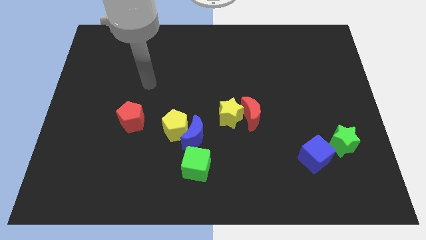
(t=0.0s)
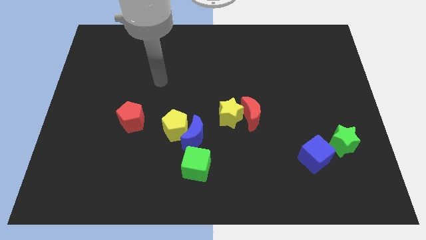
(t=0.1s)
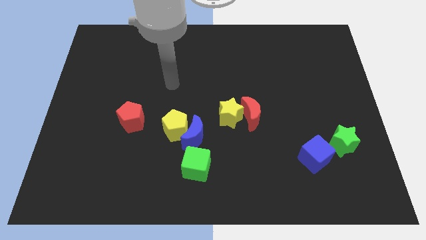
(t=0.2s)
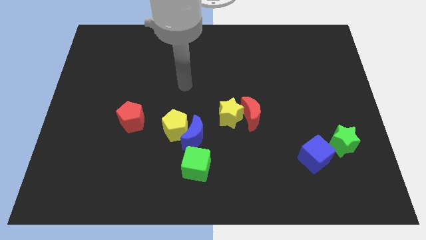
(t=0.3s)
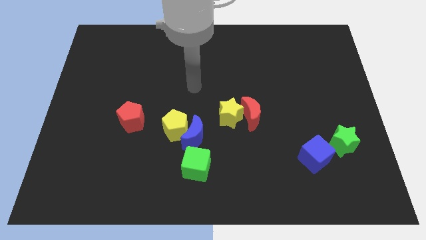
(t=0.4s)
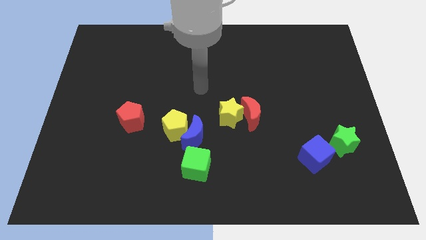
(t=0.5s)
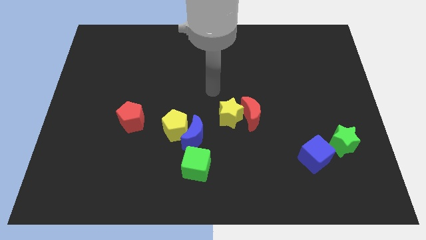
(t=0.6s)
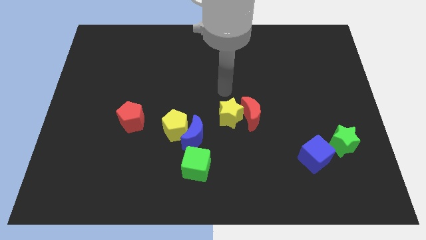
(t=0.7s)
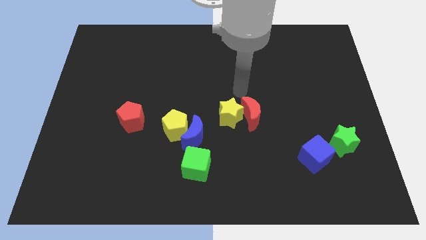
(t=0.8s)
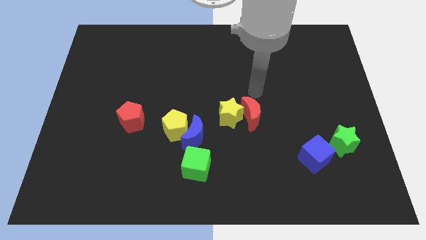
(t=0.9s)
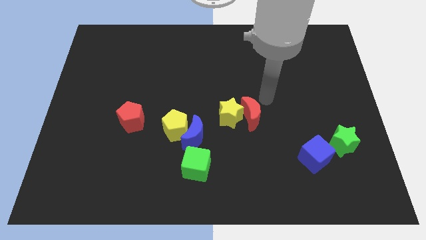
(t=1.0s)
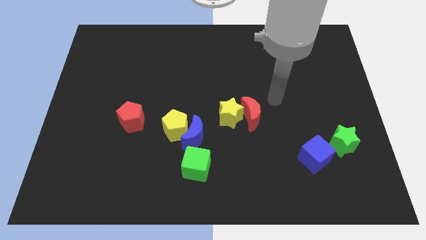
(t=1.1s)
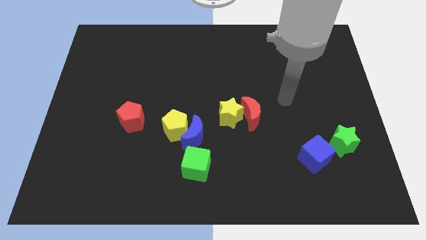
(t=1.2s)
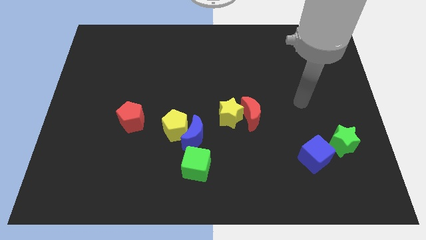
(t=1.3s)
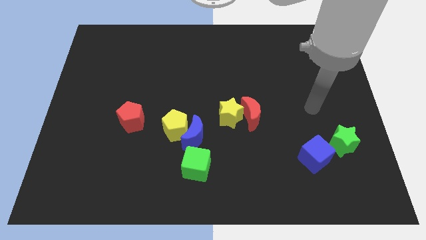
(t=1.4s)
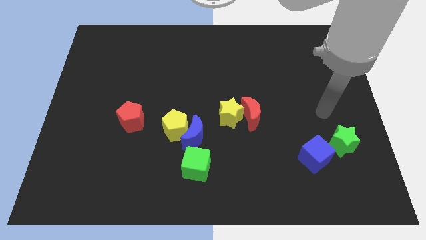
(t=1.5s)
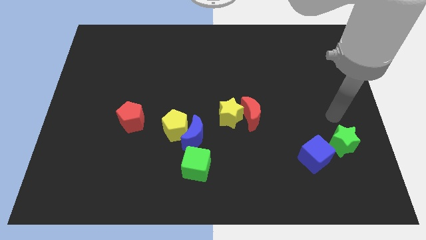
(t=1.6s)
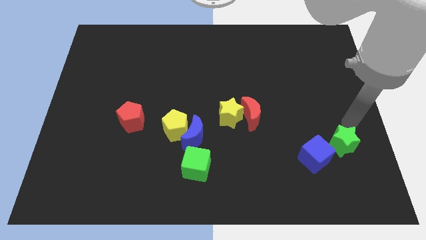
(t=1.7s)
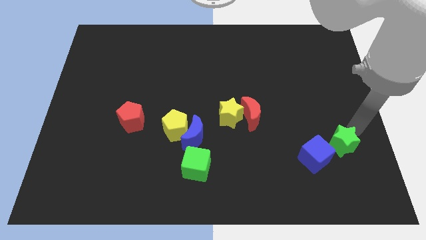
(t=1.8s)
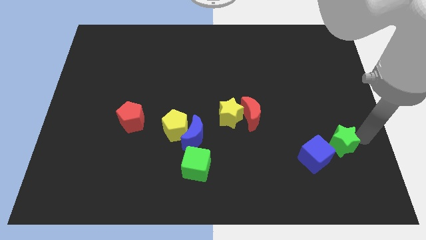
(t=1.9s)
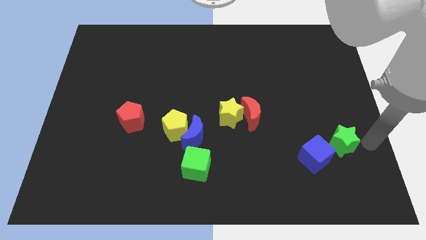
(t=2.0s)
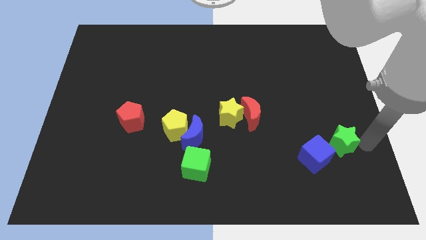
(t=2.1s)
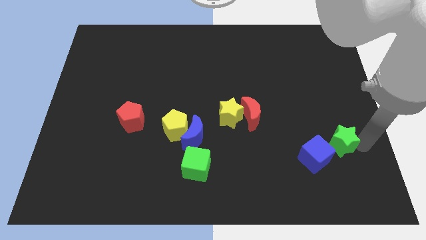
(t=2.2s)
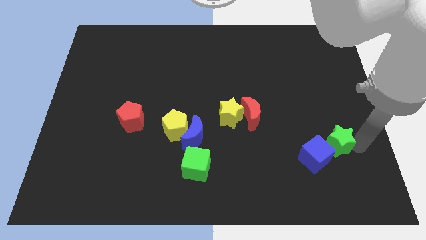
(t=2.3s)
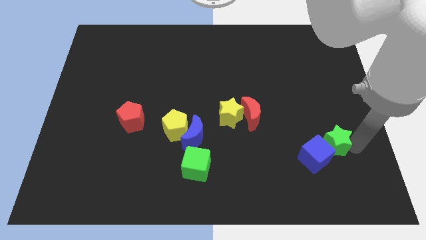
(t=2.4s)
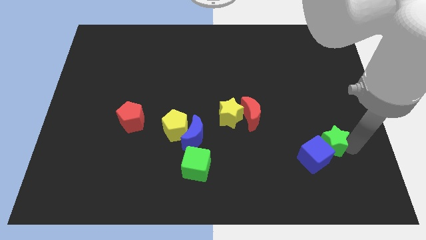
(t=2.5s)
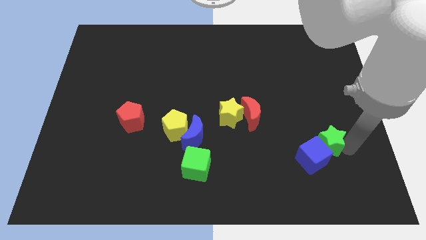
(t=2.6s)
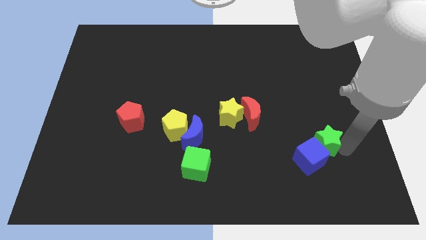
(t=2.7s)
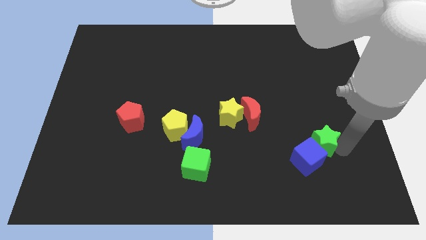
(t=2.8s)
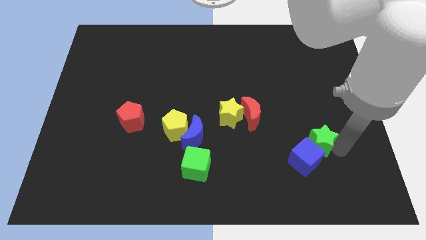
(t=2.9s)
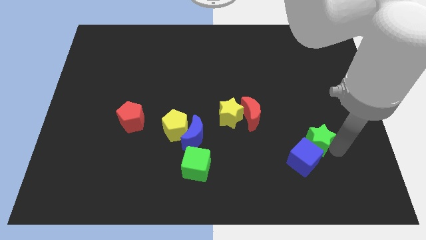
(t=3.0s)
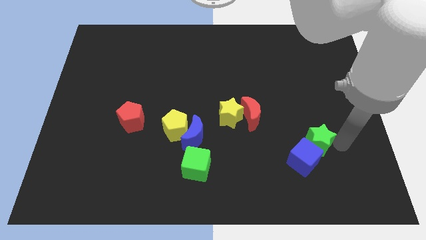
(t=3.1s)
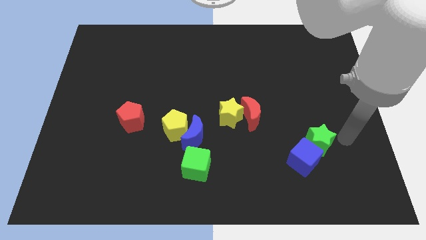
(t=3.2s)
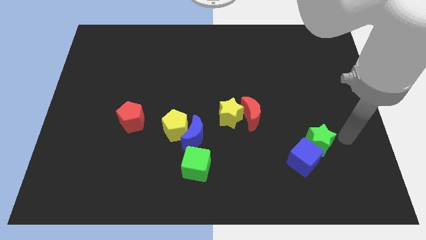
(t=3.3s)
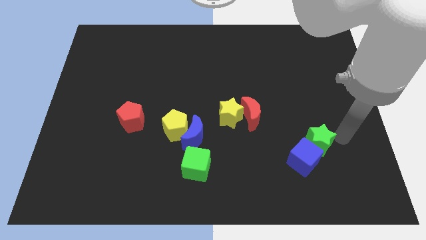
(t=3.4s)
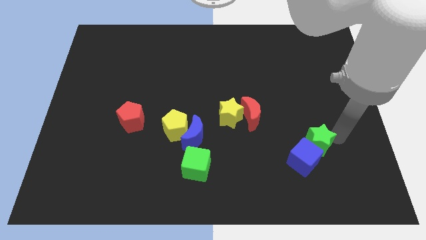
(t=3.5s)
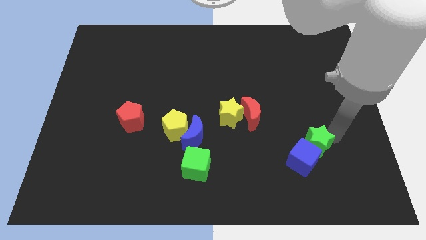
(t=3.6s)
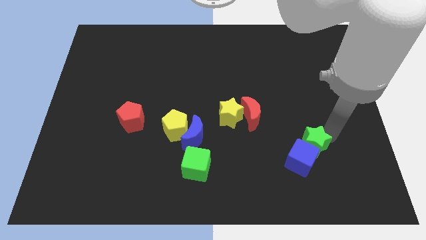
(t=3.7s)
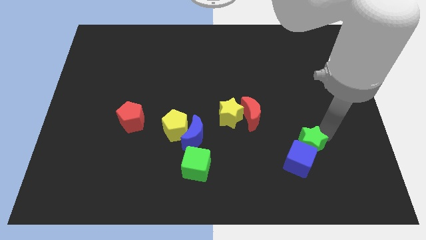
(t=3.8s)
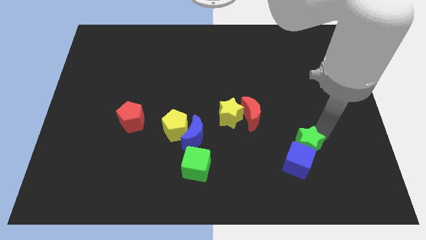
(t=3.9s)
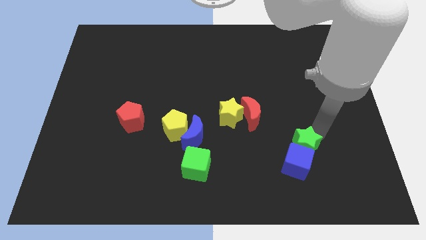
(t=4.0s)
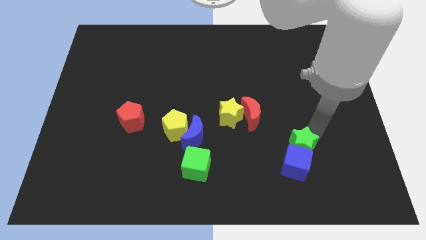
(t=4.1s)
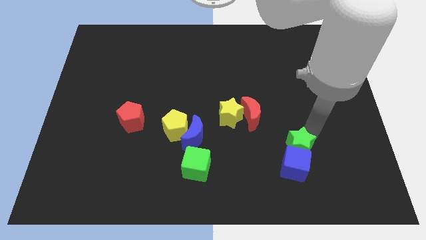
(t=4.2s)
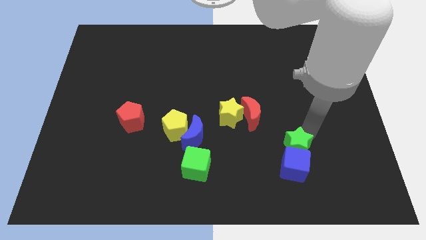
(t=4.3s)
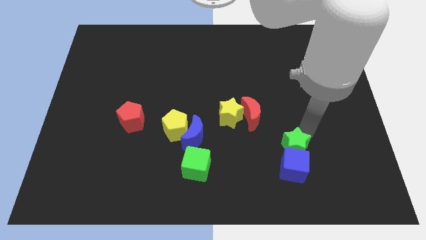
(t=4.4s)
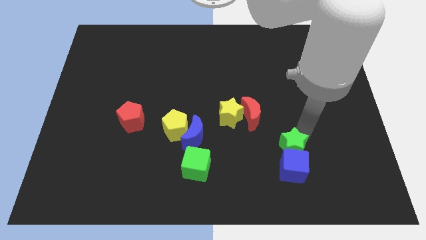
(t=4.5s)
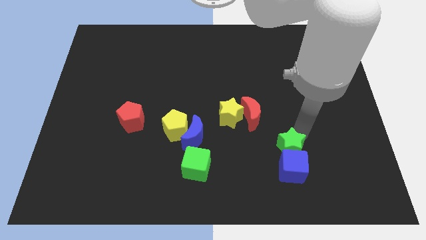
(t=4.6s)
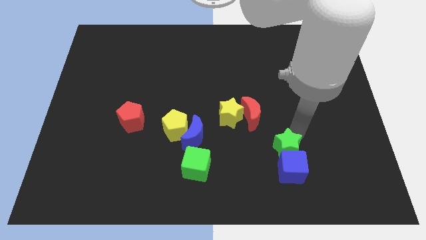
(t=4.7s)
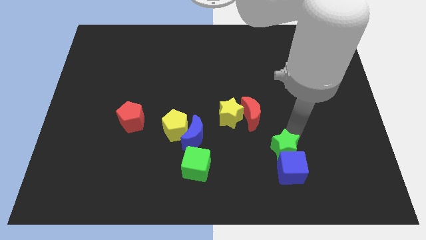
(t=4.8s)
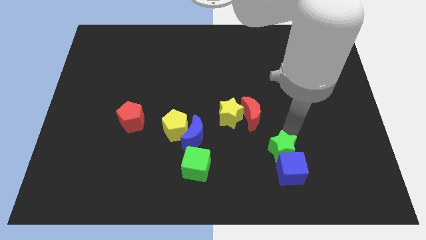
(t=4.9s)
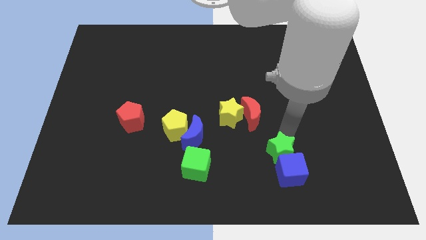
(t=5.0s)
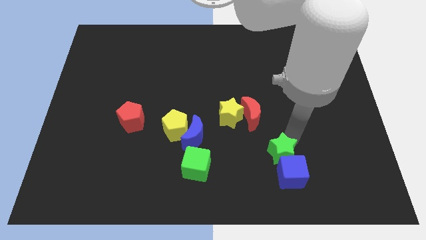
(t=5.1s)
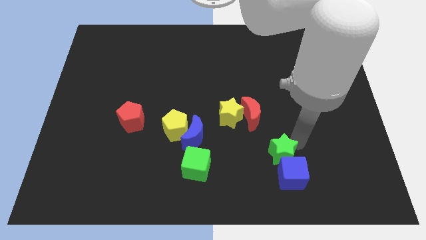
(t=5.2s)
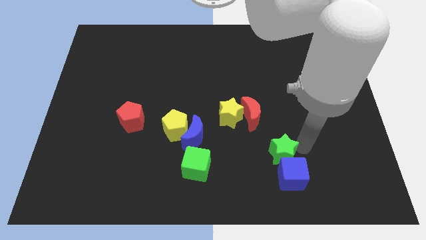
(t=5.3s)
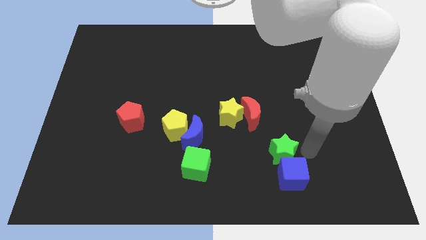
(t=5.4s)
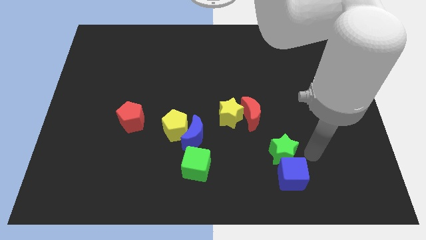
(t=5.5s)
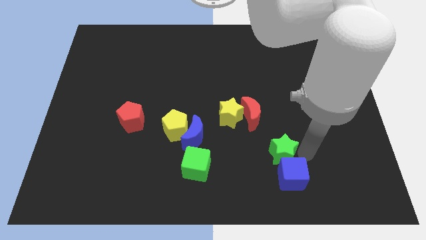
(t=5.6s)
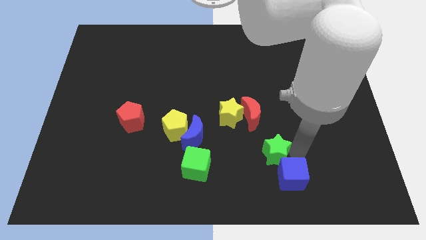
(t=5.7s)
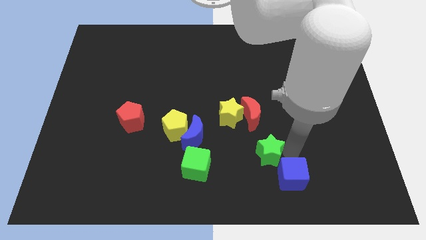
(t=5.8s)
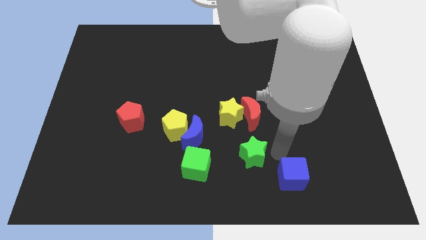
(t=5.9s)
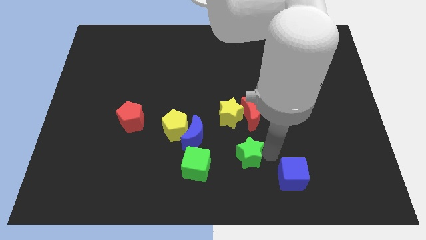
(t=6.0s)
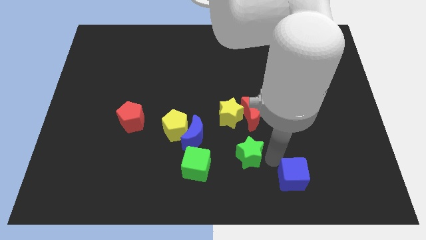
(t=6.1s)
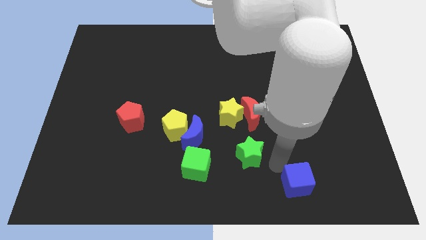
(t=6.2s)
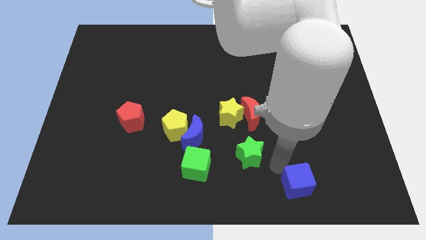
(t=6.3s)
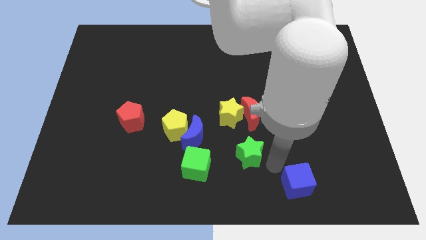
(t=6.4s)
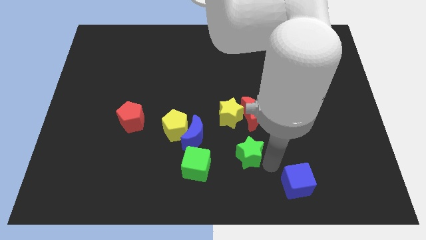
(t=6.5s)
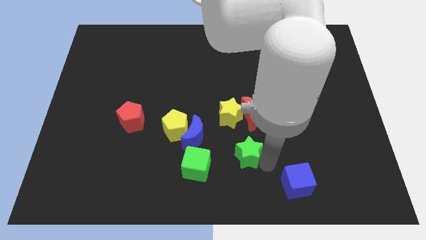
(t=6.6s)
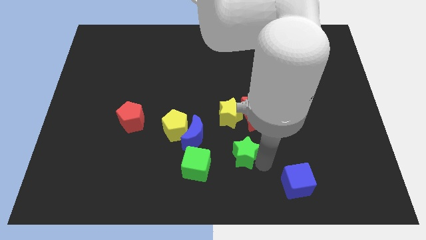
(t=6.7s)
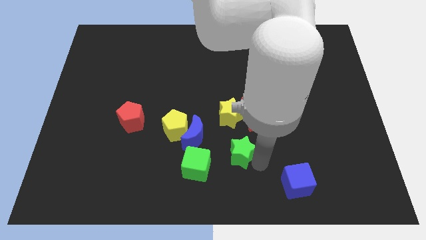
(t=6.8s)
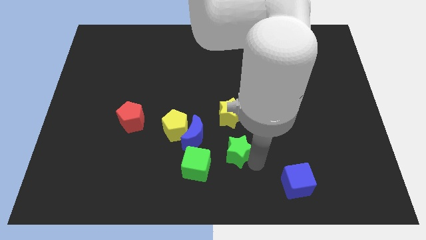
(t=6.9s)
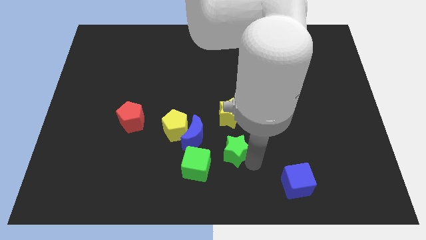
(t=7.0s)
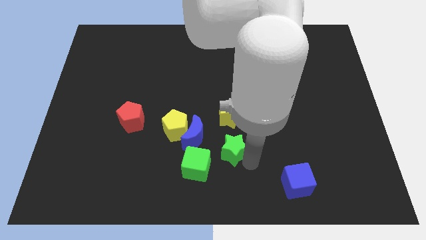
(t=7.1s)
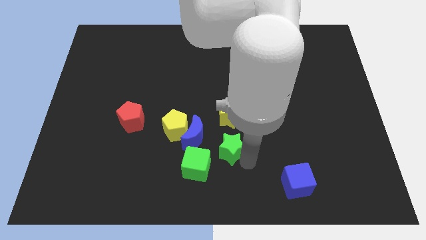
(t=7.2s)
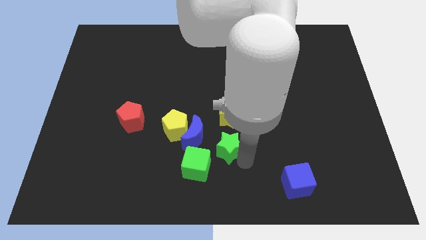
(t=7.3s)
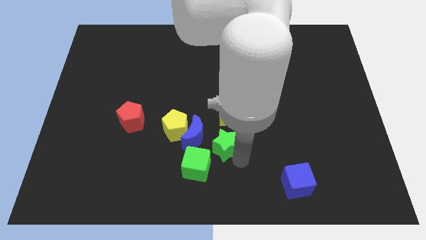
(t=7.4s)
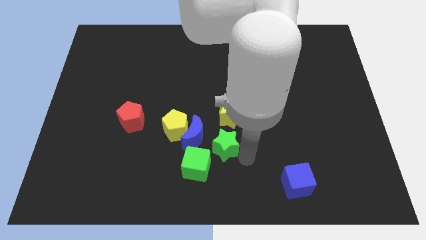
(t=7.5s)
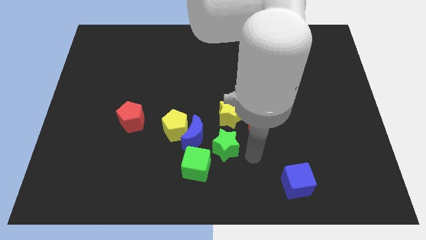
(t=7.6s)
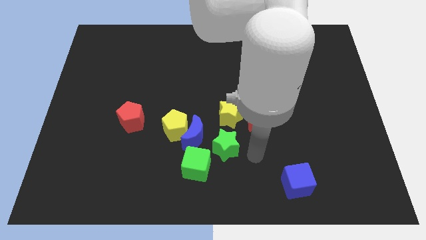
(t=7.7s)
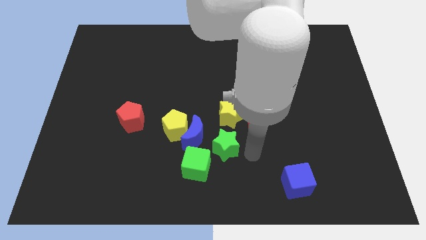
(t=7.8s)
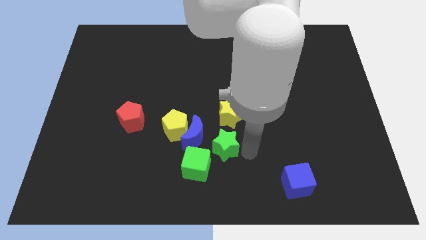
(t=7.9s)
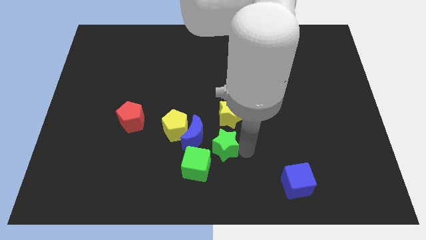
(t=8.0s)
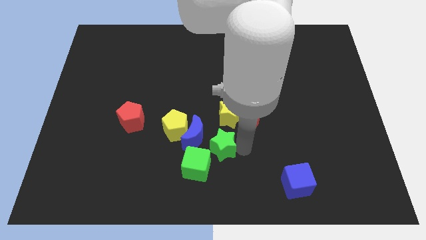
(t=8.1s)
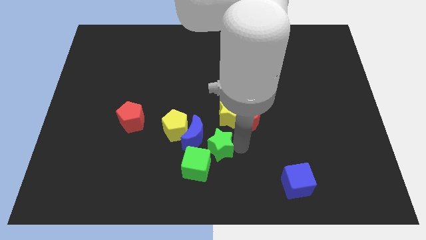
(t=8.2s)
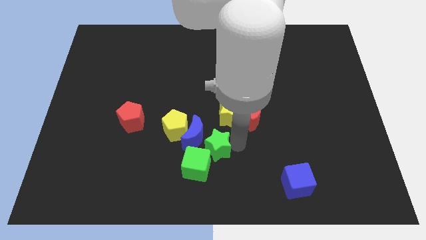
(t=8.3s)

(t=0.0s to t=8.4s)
put the green star to the blue moon
